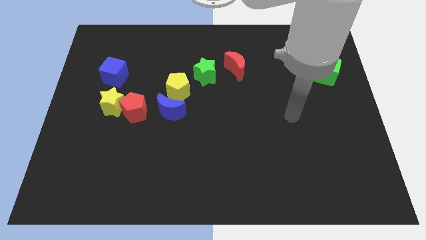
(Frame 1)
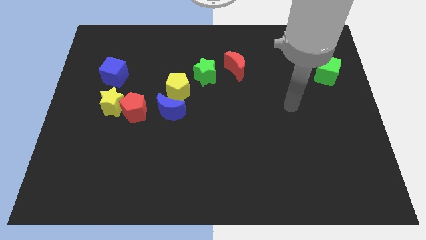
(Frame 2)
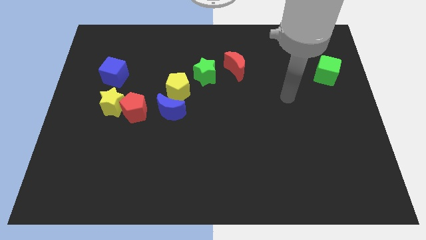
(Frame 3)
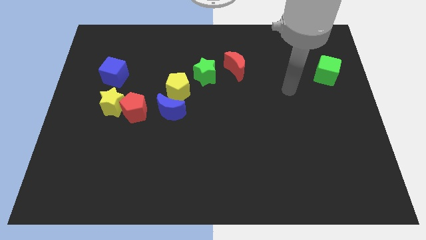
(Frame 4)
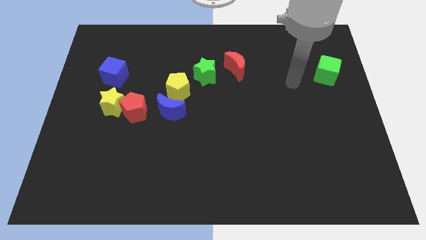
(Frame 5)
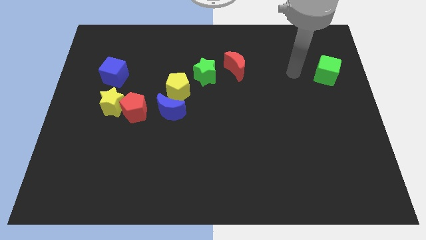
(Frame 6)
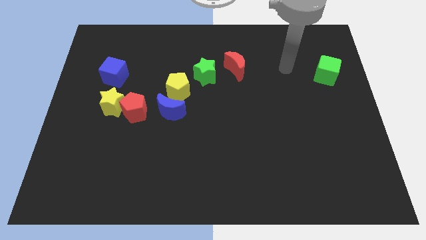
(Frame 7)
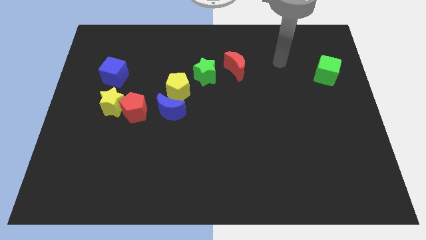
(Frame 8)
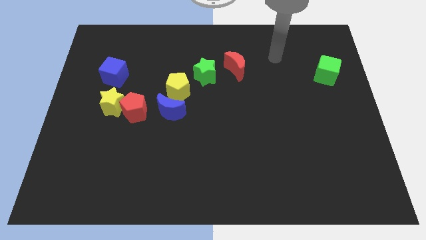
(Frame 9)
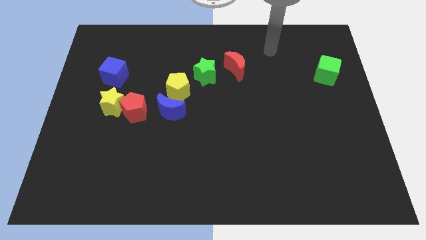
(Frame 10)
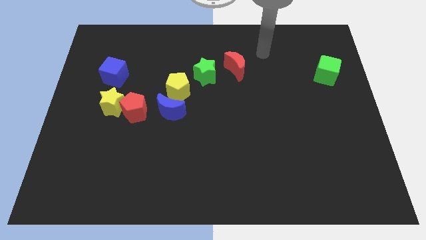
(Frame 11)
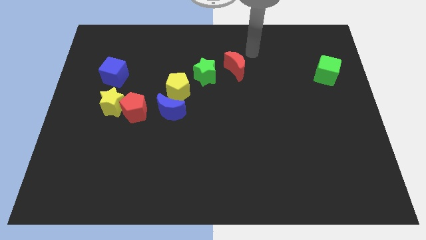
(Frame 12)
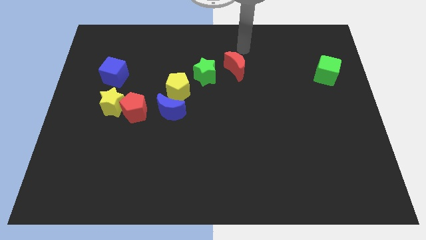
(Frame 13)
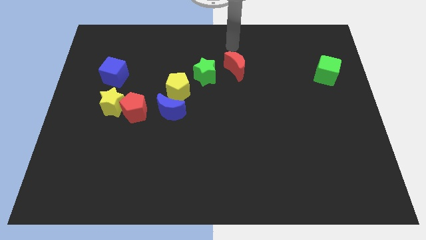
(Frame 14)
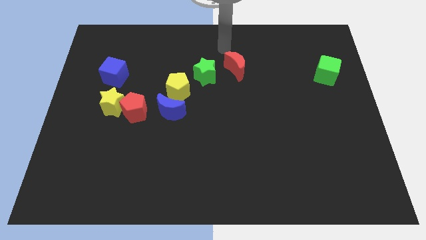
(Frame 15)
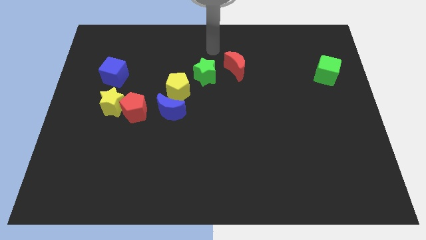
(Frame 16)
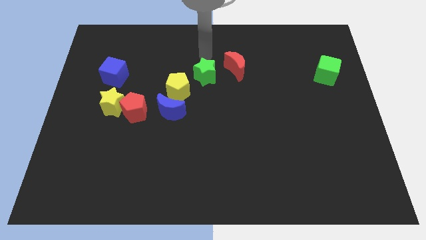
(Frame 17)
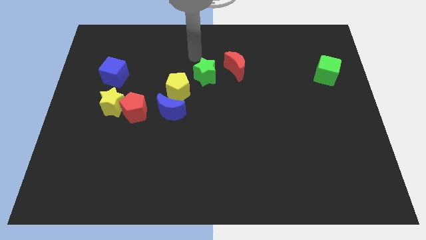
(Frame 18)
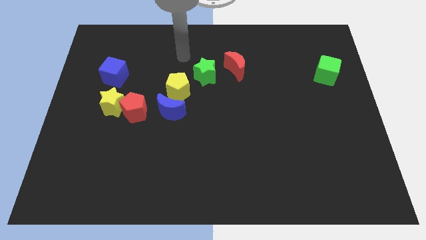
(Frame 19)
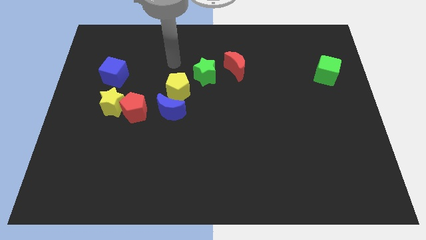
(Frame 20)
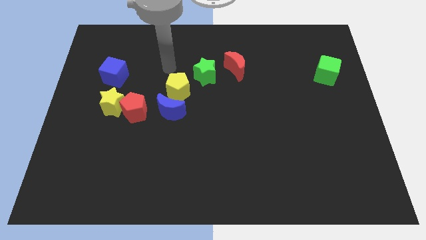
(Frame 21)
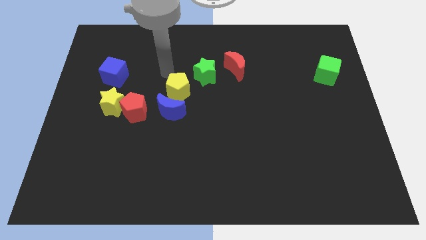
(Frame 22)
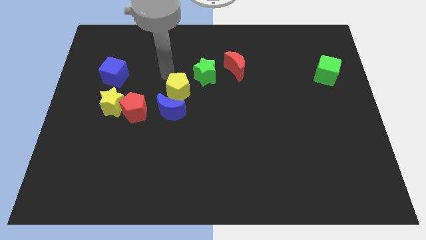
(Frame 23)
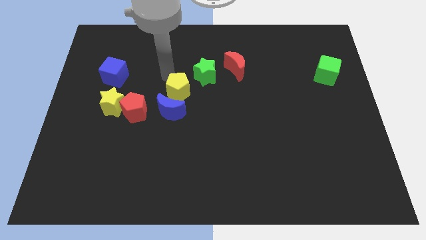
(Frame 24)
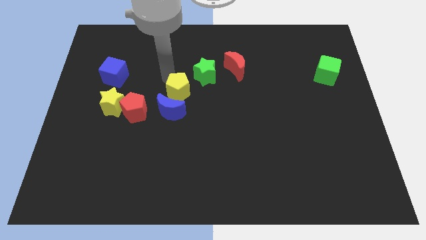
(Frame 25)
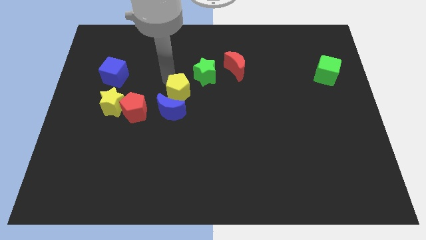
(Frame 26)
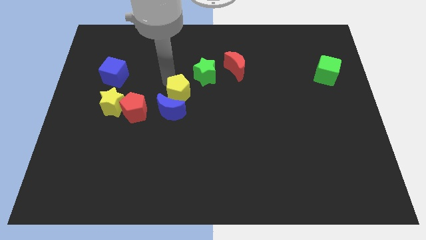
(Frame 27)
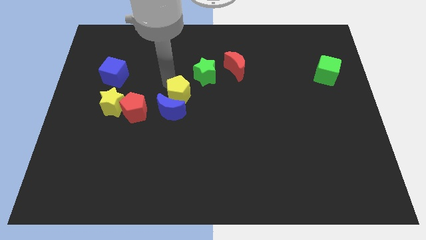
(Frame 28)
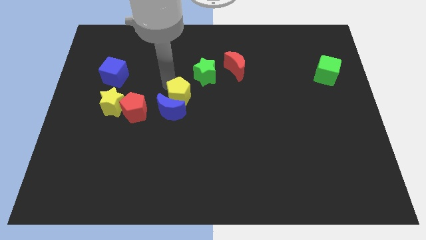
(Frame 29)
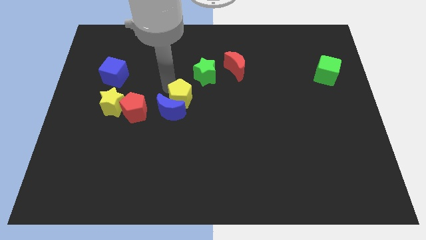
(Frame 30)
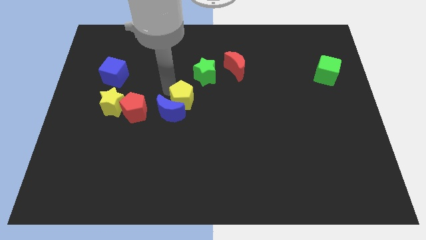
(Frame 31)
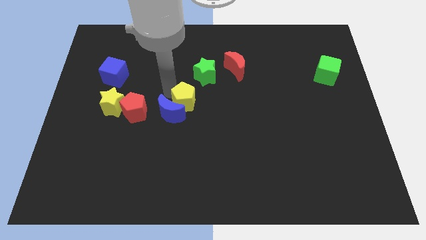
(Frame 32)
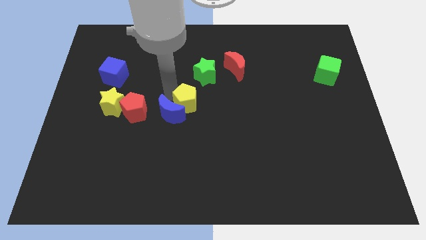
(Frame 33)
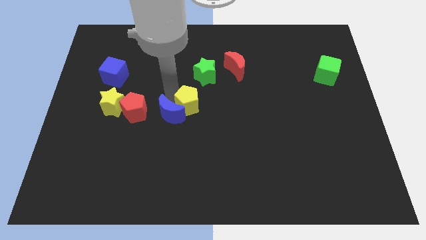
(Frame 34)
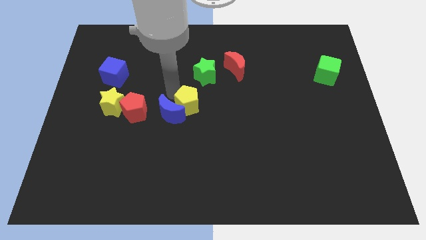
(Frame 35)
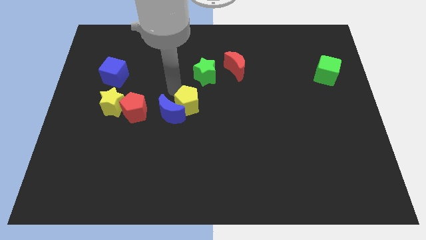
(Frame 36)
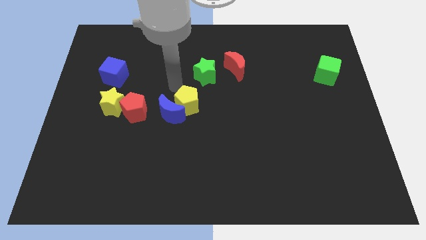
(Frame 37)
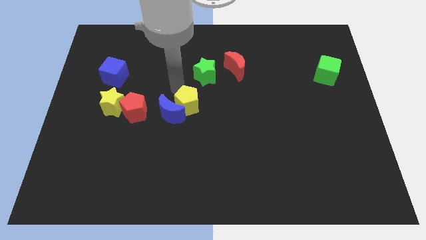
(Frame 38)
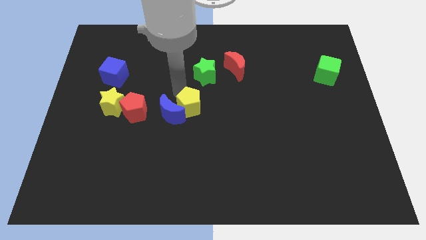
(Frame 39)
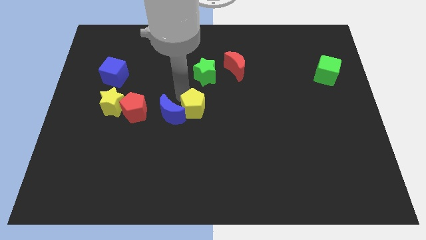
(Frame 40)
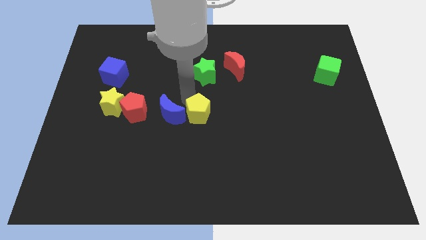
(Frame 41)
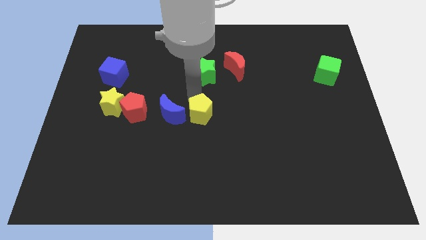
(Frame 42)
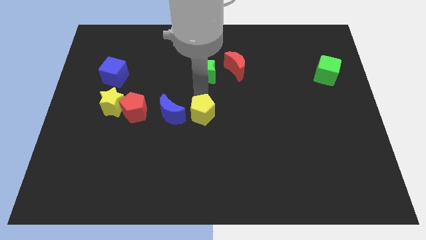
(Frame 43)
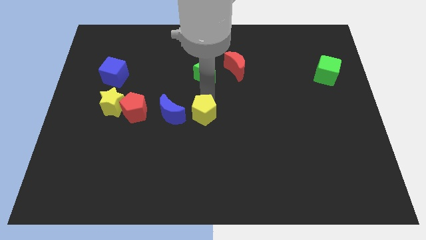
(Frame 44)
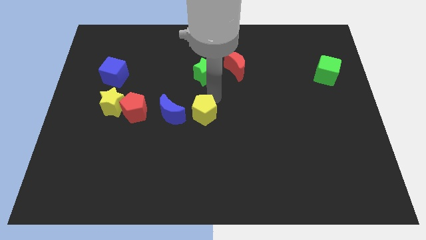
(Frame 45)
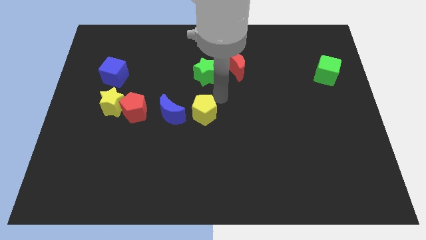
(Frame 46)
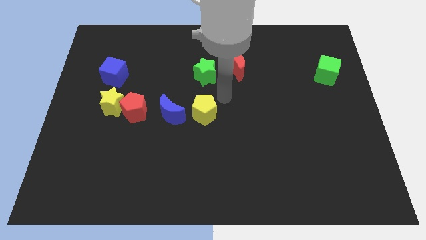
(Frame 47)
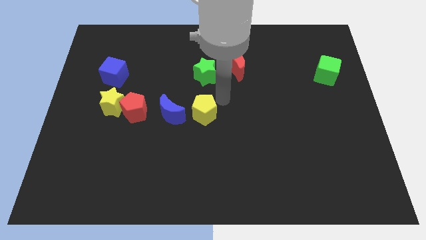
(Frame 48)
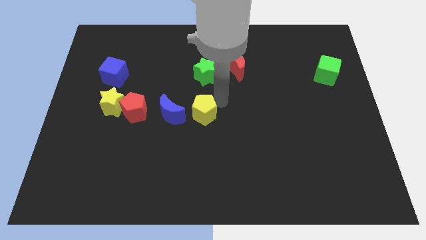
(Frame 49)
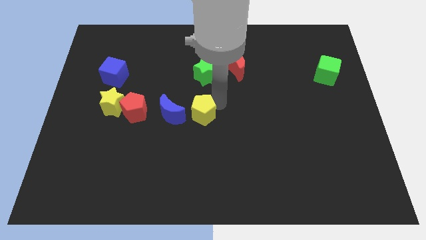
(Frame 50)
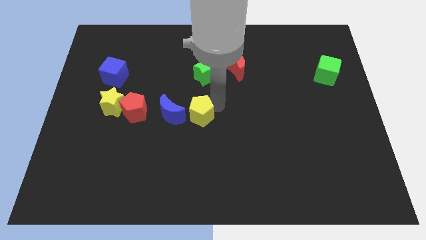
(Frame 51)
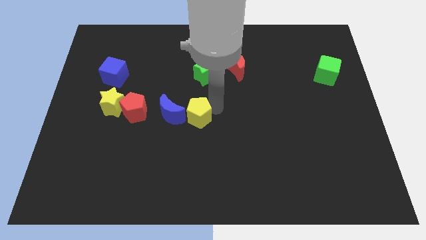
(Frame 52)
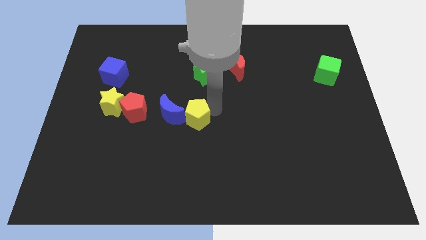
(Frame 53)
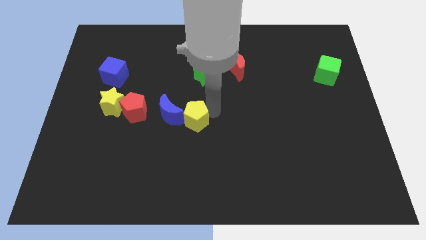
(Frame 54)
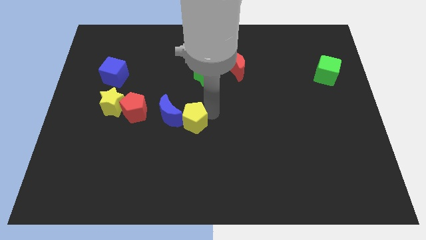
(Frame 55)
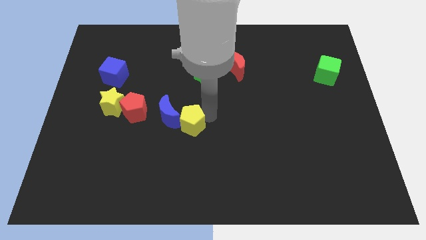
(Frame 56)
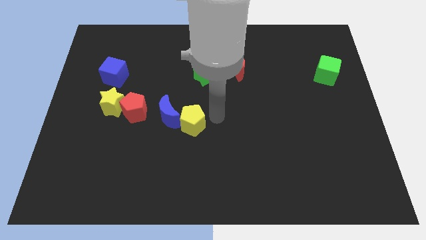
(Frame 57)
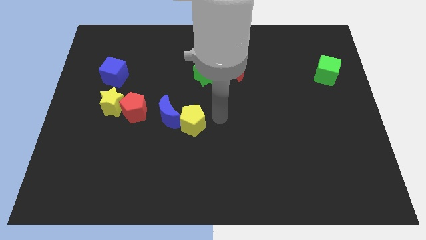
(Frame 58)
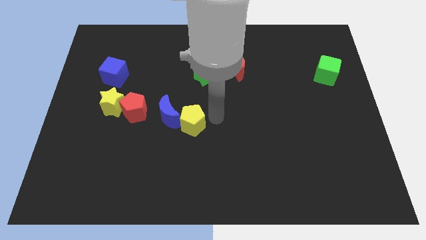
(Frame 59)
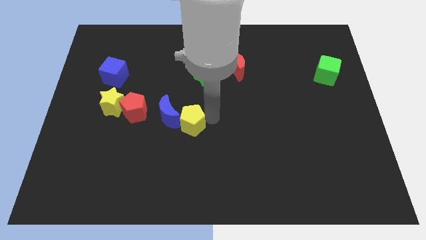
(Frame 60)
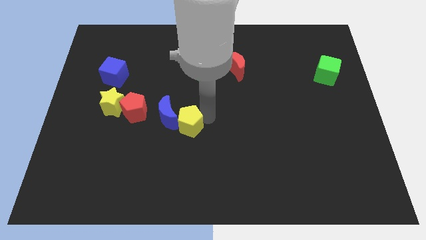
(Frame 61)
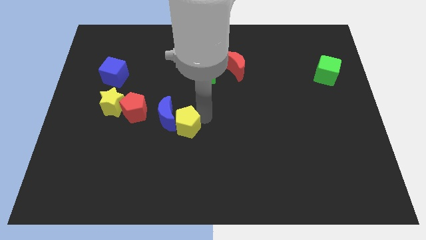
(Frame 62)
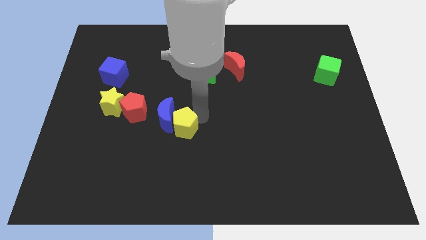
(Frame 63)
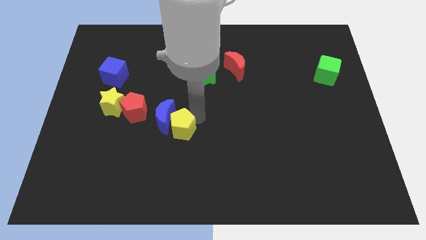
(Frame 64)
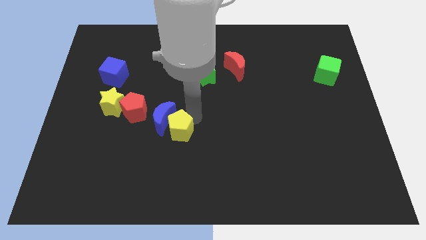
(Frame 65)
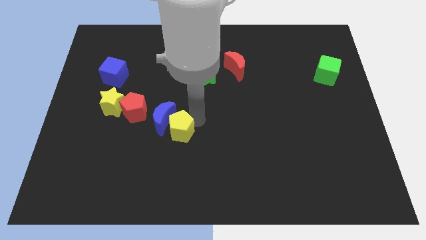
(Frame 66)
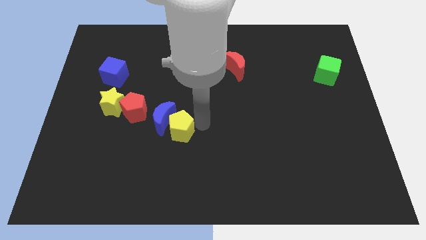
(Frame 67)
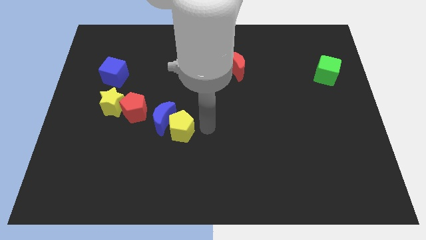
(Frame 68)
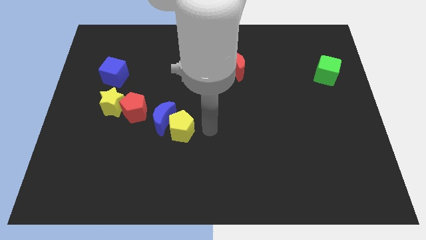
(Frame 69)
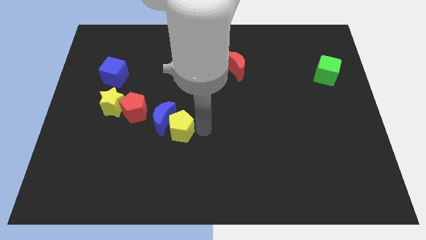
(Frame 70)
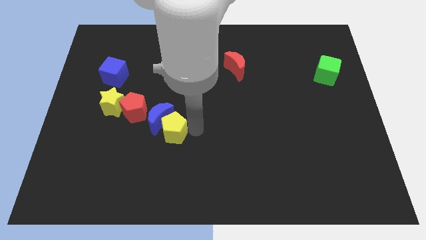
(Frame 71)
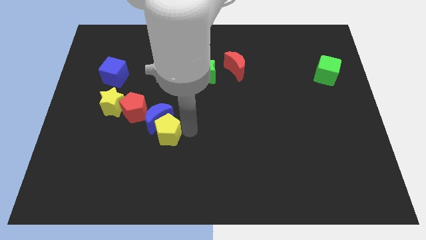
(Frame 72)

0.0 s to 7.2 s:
slightly slide the yellow pentagon down and left diagonally

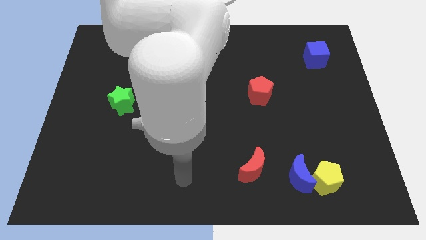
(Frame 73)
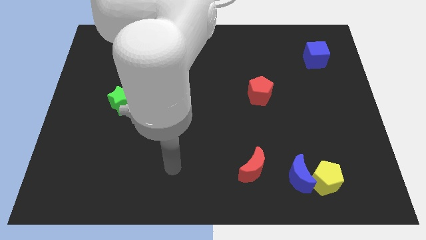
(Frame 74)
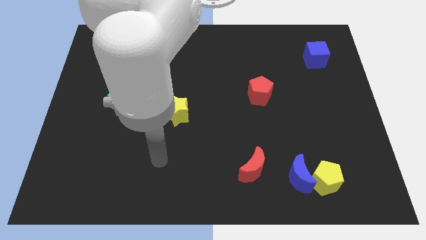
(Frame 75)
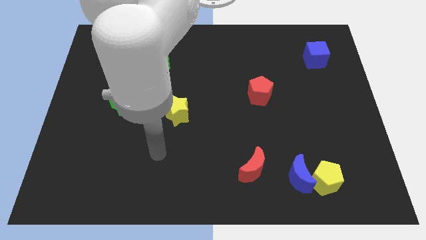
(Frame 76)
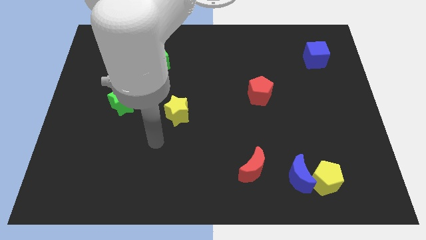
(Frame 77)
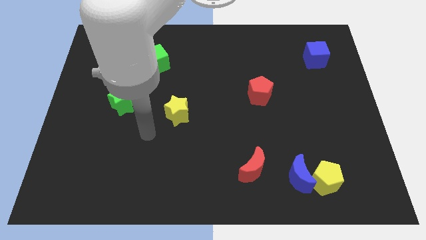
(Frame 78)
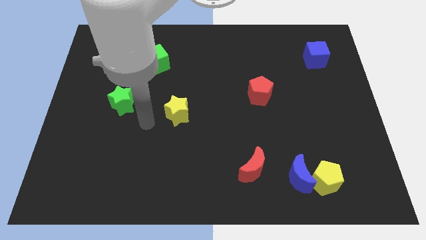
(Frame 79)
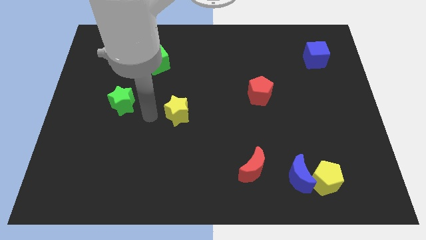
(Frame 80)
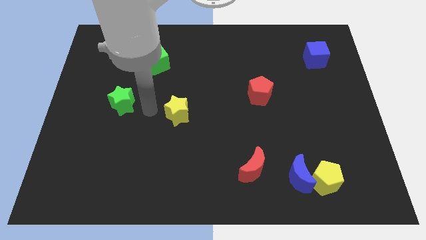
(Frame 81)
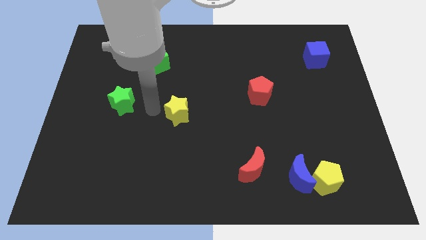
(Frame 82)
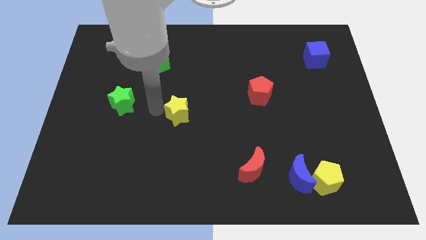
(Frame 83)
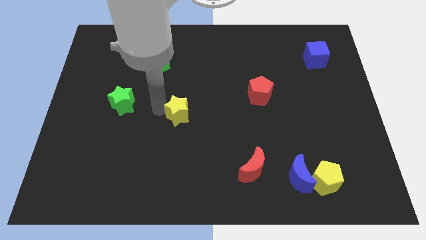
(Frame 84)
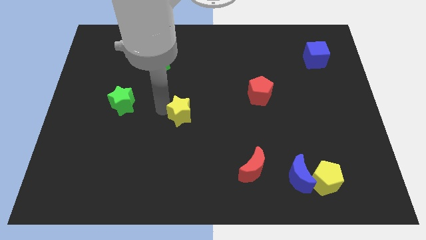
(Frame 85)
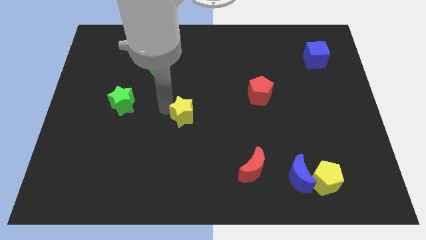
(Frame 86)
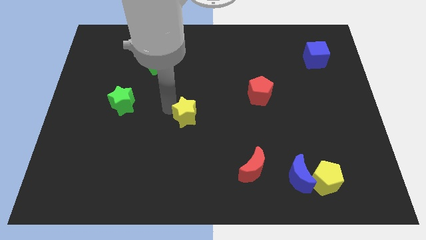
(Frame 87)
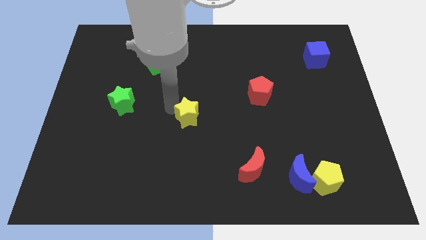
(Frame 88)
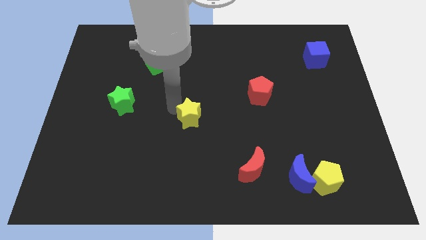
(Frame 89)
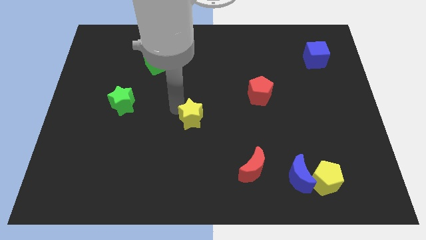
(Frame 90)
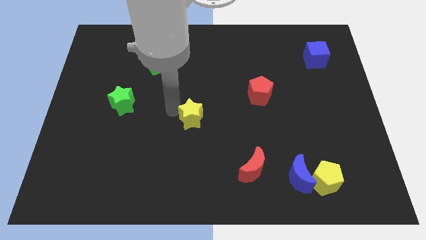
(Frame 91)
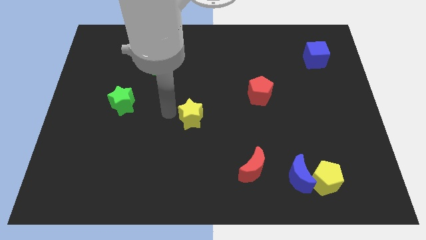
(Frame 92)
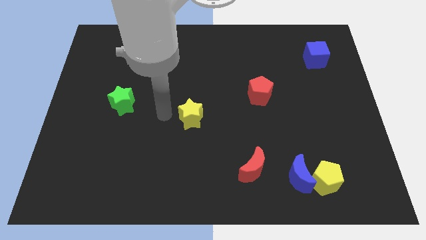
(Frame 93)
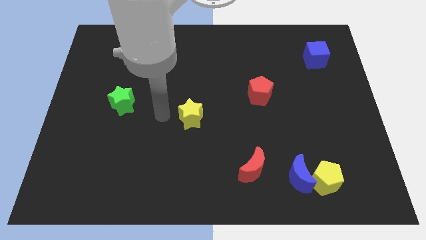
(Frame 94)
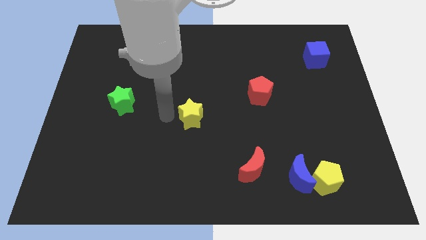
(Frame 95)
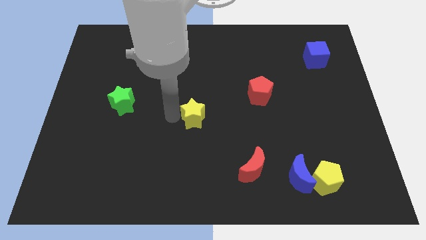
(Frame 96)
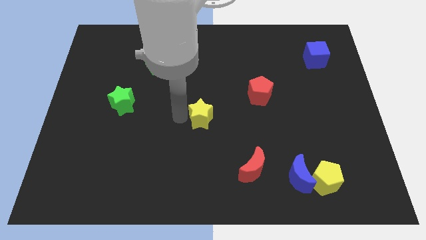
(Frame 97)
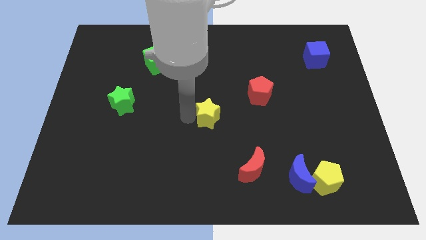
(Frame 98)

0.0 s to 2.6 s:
move the yellow star a little bit right
